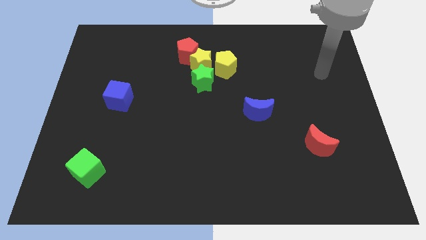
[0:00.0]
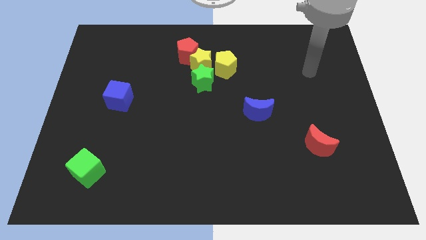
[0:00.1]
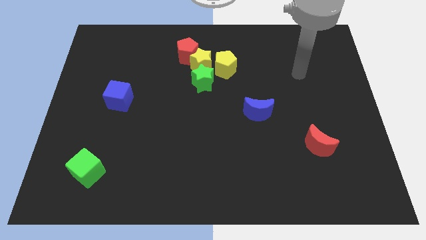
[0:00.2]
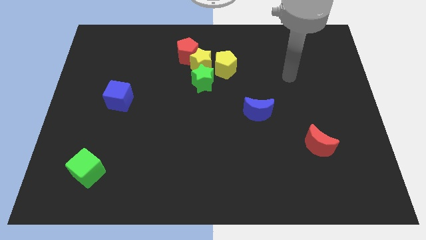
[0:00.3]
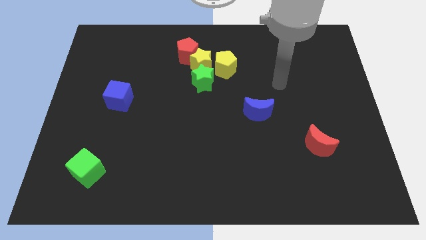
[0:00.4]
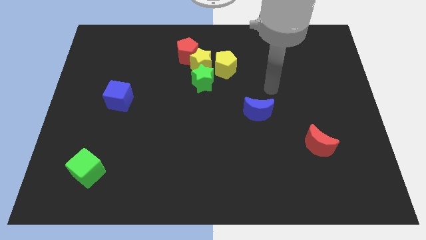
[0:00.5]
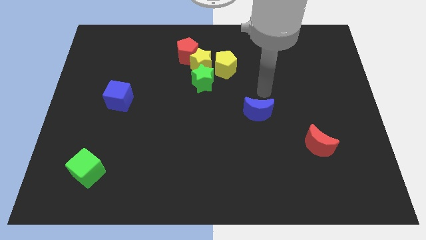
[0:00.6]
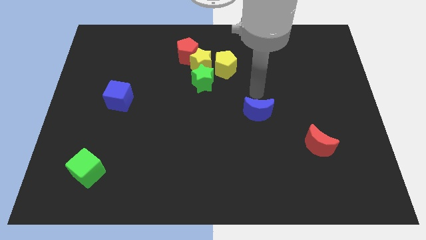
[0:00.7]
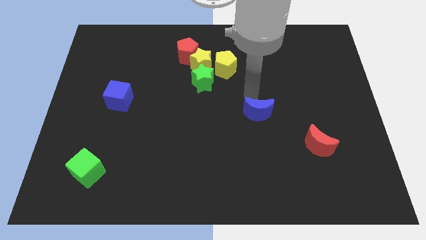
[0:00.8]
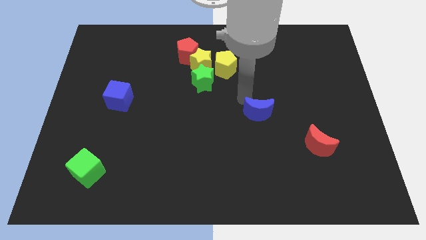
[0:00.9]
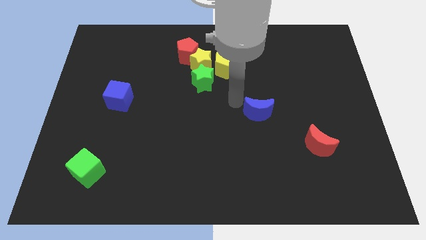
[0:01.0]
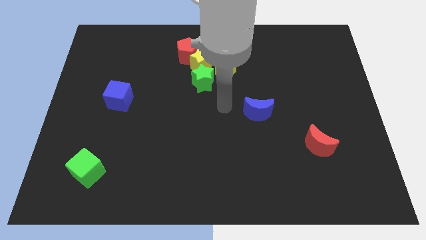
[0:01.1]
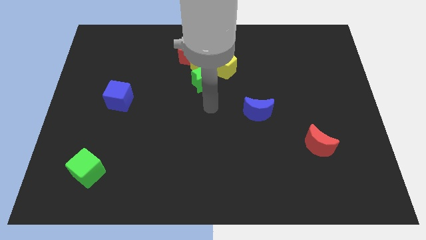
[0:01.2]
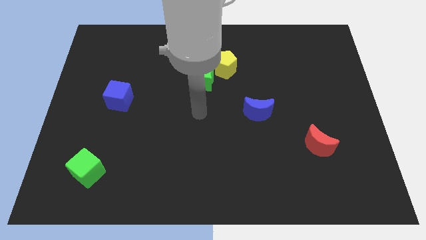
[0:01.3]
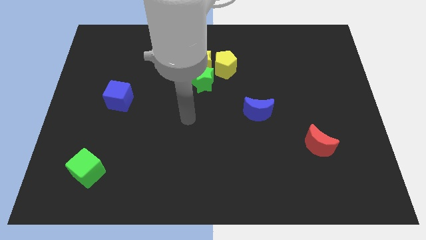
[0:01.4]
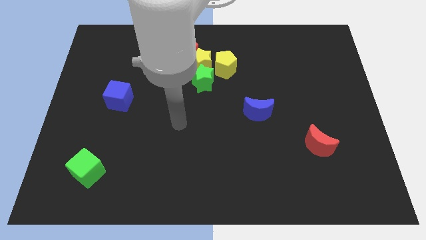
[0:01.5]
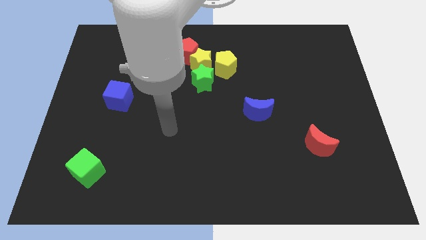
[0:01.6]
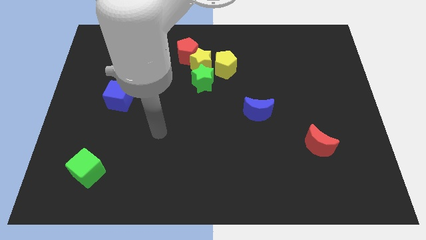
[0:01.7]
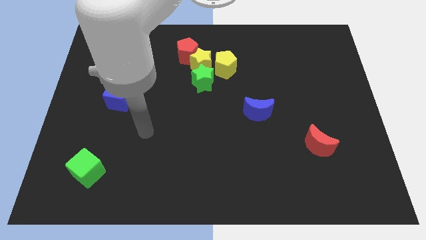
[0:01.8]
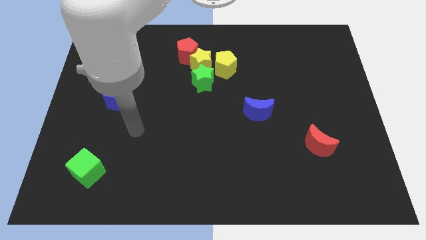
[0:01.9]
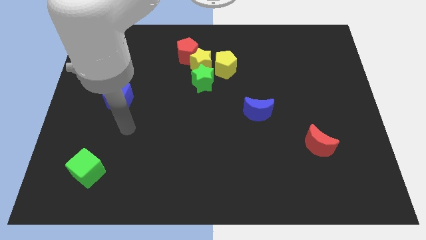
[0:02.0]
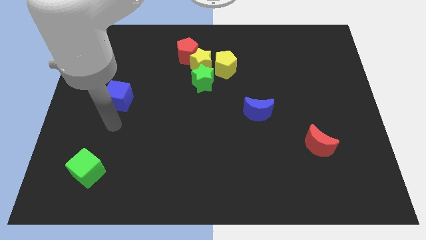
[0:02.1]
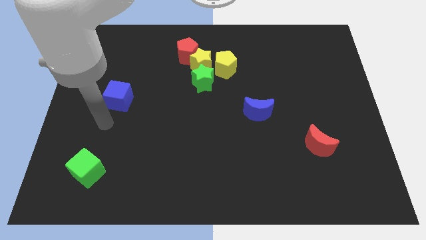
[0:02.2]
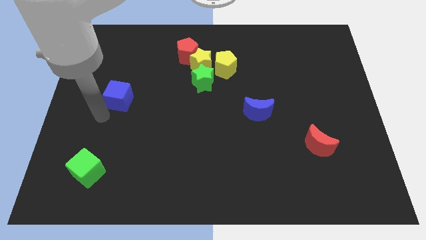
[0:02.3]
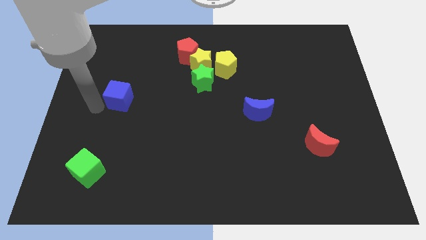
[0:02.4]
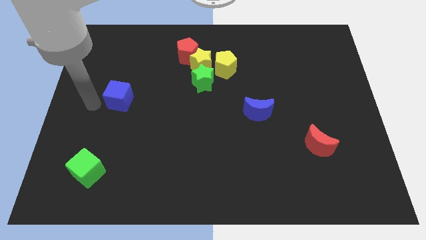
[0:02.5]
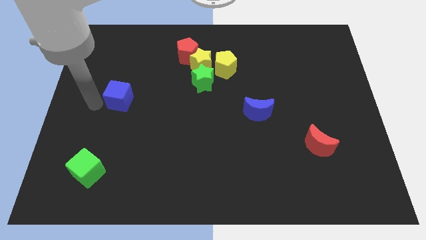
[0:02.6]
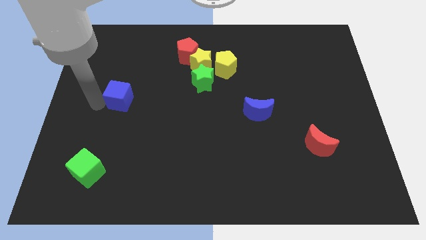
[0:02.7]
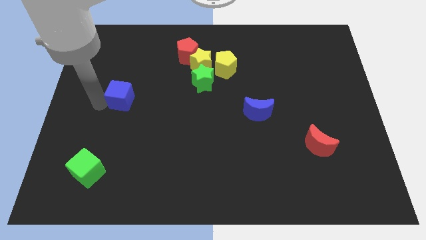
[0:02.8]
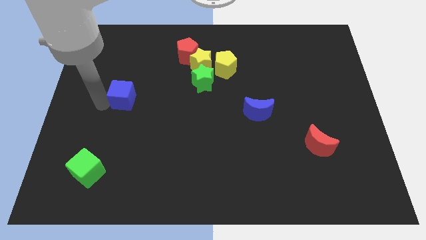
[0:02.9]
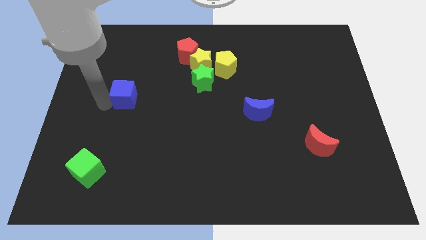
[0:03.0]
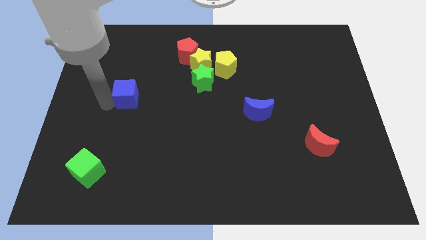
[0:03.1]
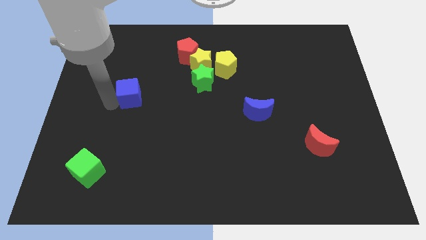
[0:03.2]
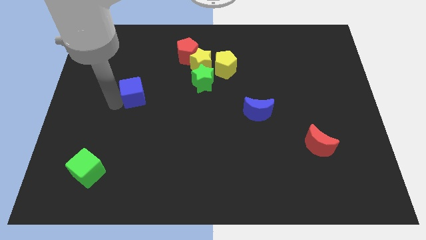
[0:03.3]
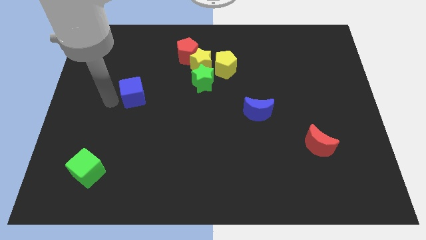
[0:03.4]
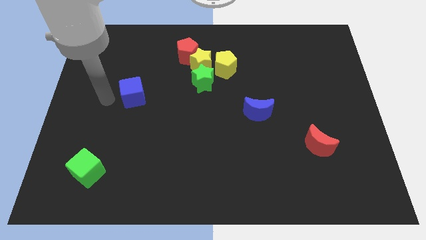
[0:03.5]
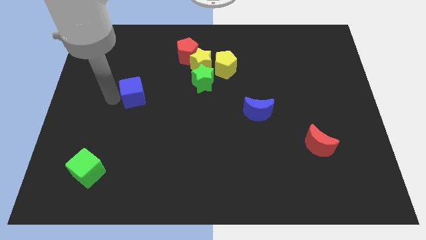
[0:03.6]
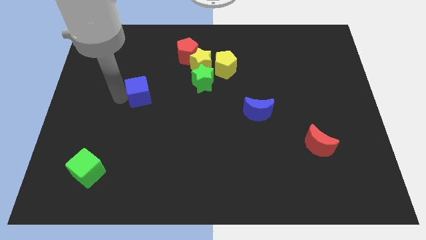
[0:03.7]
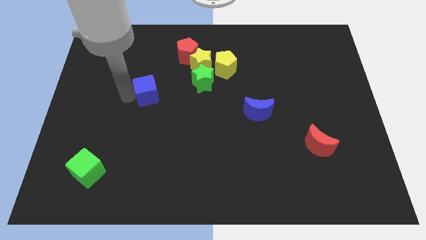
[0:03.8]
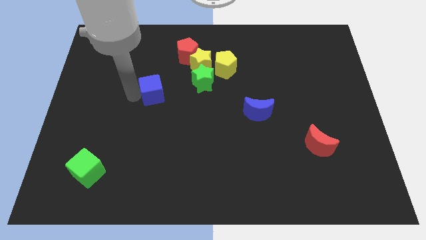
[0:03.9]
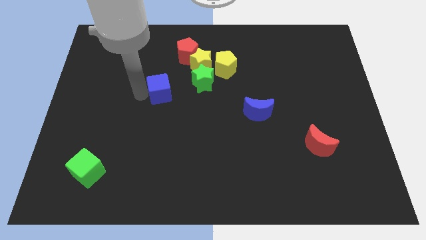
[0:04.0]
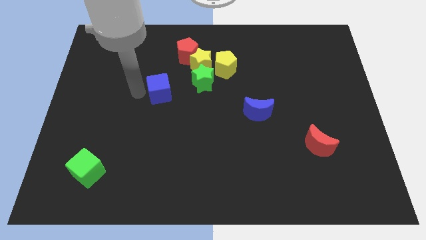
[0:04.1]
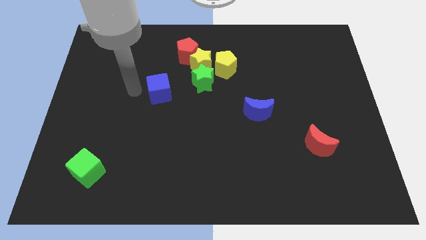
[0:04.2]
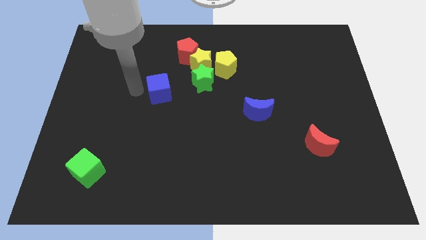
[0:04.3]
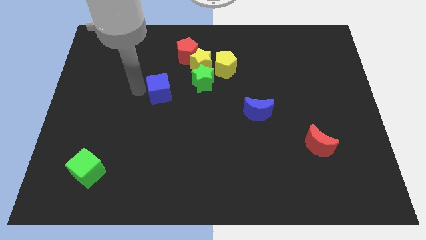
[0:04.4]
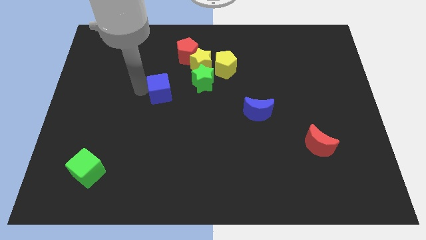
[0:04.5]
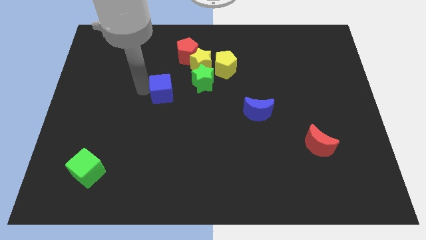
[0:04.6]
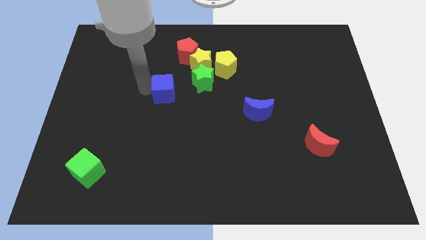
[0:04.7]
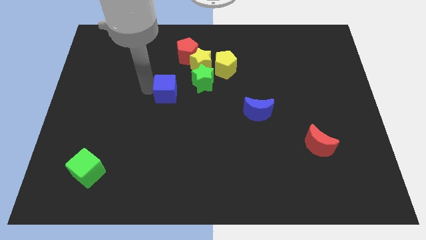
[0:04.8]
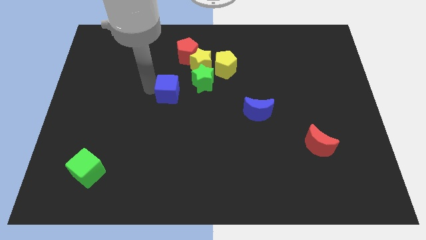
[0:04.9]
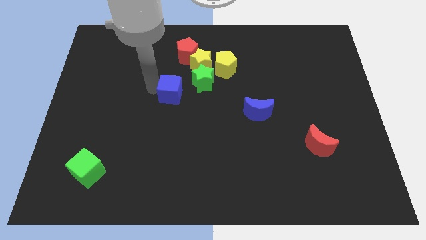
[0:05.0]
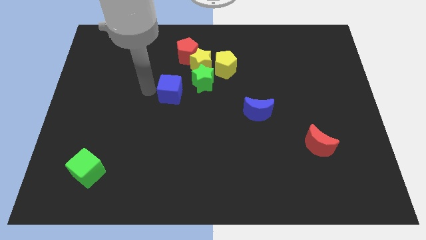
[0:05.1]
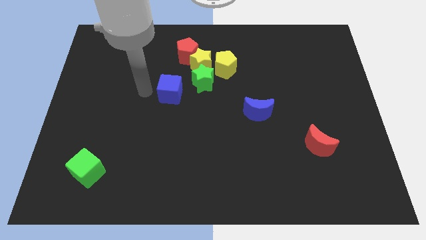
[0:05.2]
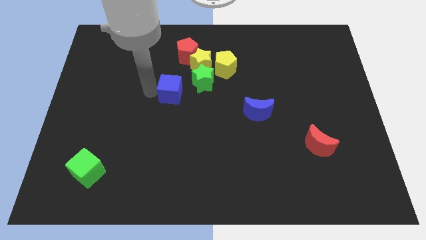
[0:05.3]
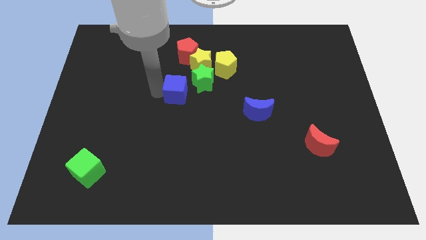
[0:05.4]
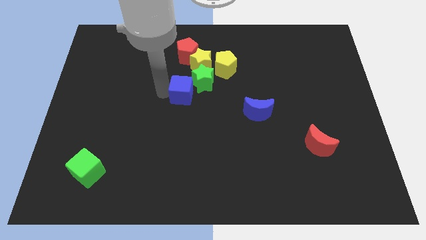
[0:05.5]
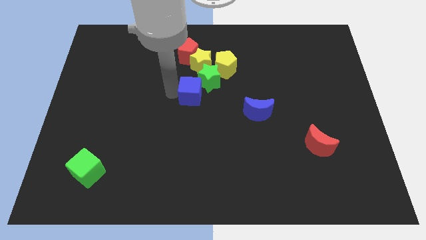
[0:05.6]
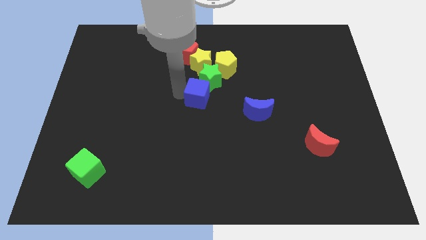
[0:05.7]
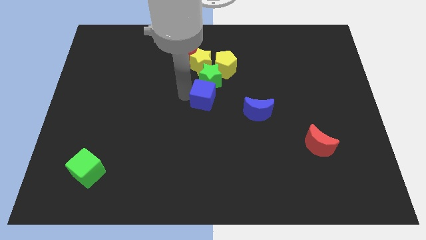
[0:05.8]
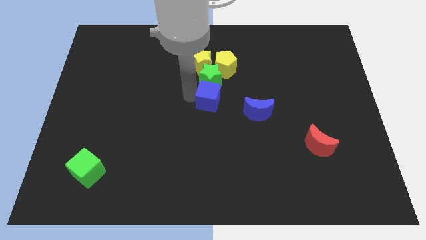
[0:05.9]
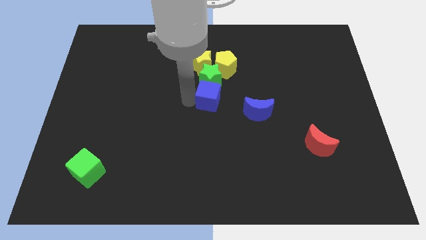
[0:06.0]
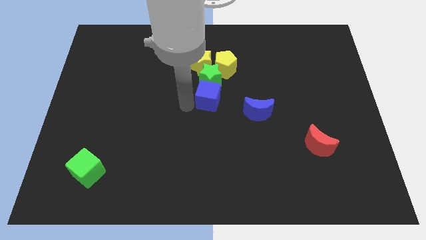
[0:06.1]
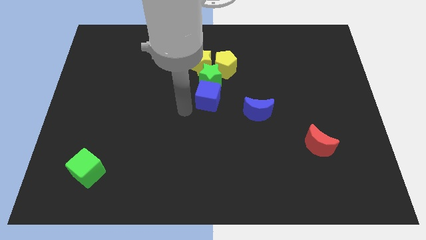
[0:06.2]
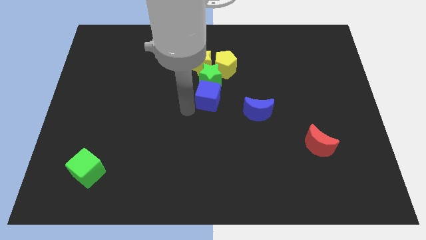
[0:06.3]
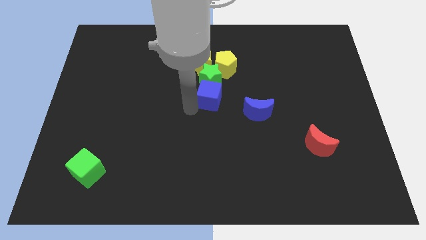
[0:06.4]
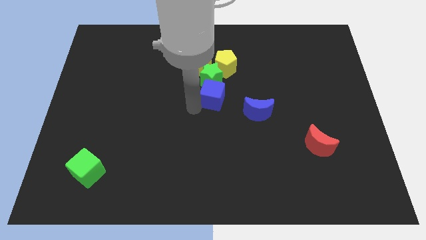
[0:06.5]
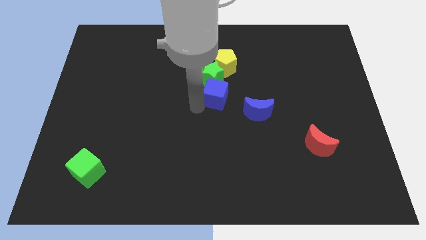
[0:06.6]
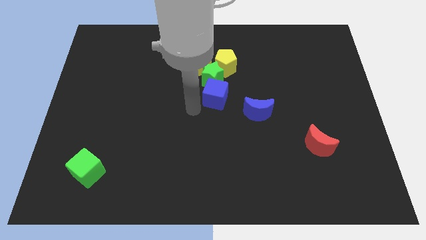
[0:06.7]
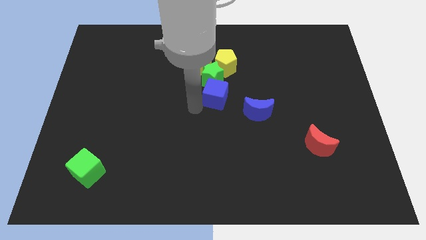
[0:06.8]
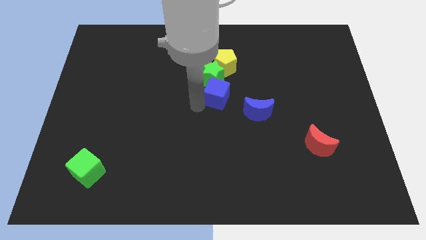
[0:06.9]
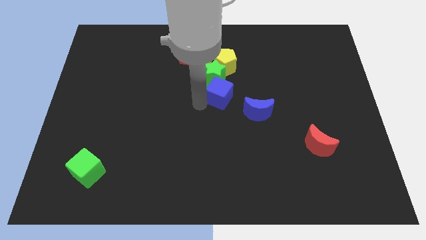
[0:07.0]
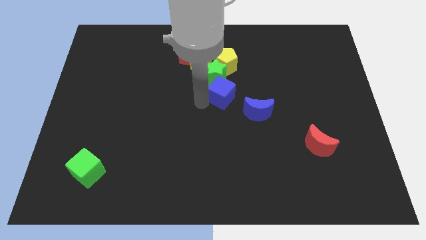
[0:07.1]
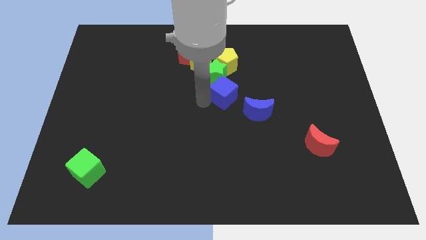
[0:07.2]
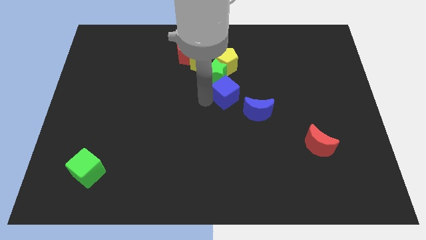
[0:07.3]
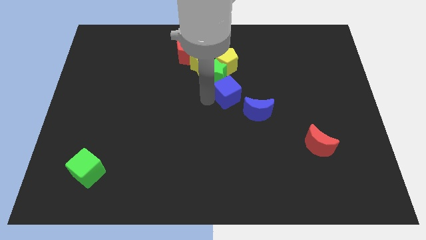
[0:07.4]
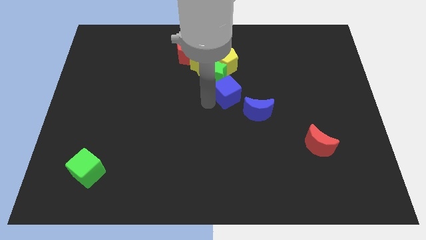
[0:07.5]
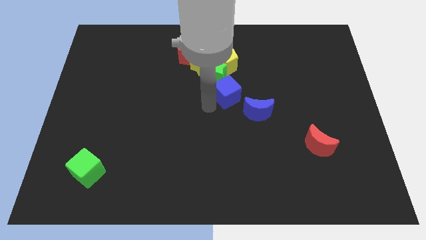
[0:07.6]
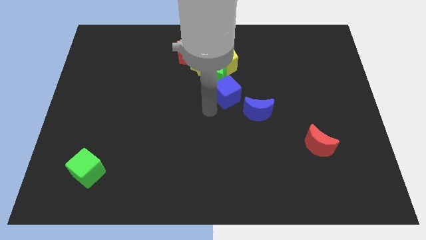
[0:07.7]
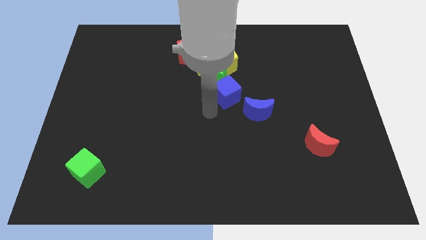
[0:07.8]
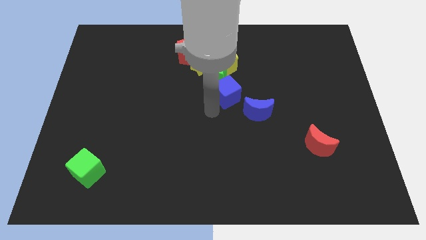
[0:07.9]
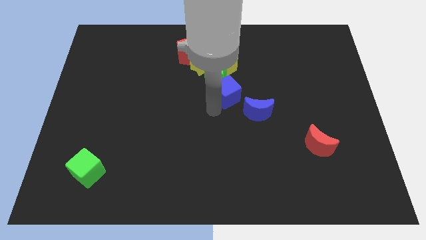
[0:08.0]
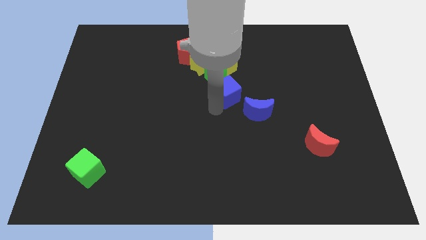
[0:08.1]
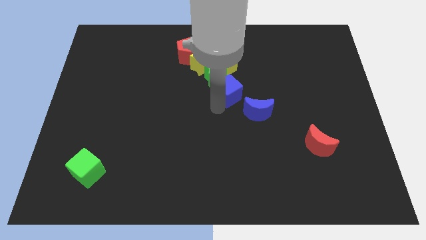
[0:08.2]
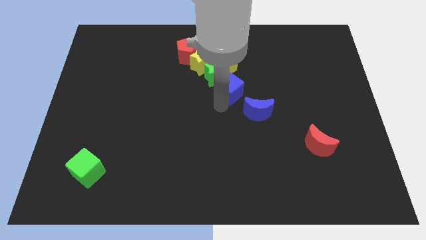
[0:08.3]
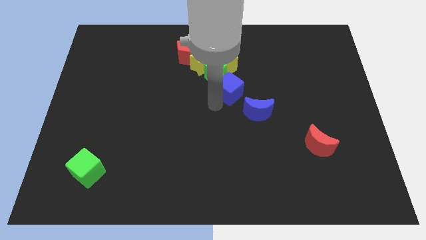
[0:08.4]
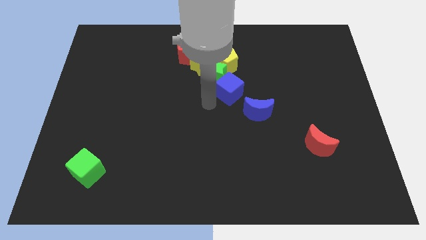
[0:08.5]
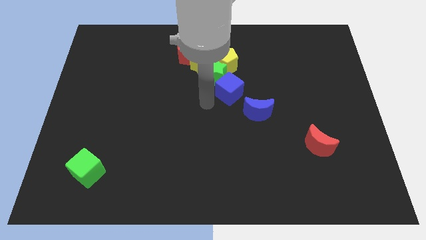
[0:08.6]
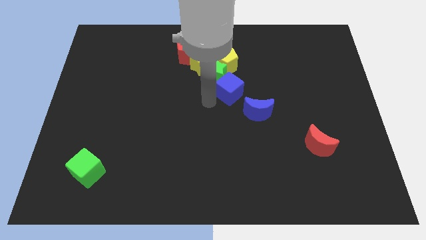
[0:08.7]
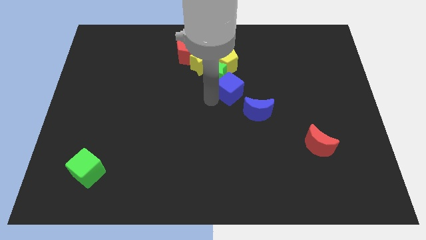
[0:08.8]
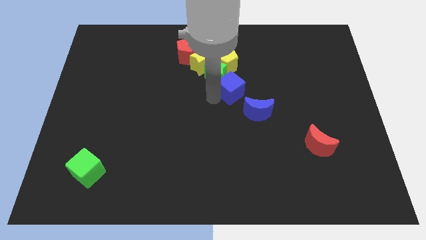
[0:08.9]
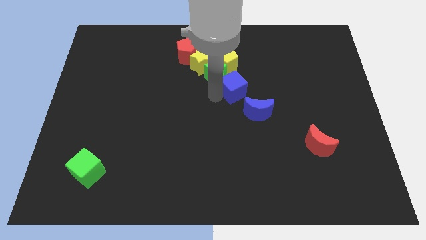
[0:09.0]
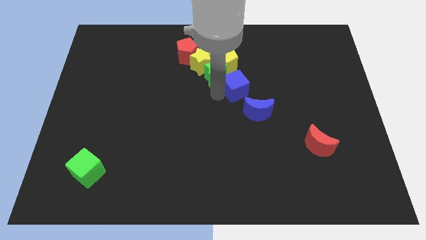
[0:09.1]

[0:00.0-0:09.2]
move the blue cube above the blue moon
